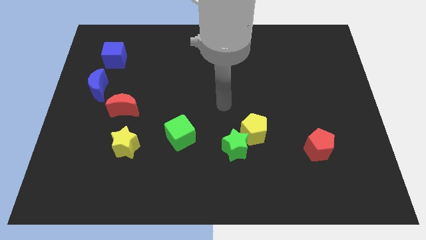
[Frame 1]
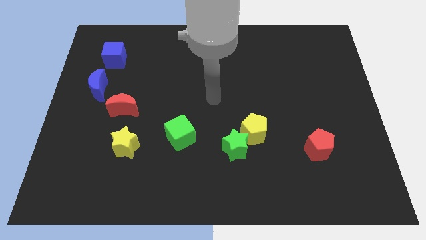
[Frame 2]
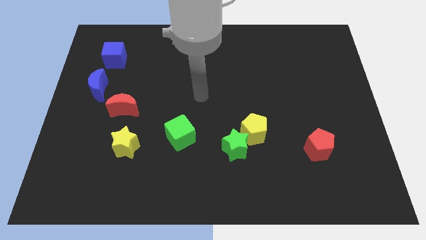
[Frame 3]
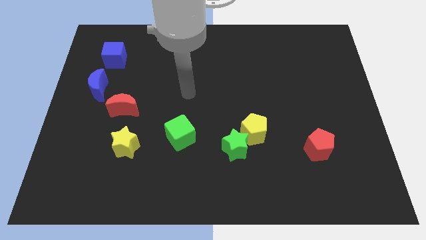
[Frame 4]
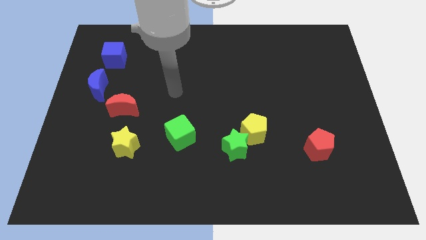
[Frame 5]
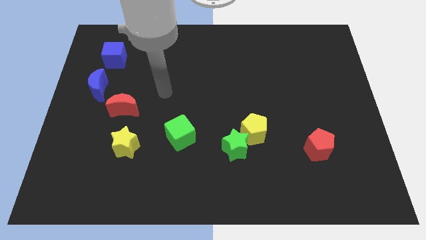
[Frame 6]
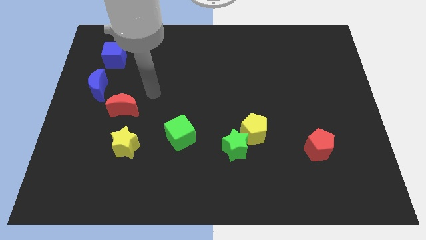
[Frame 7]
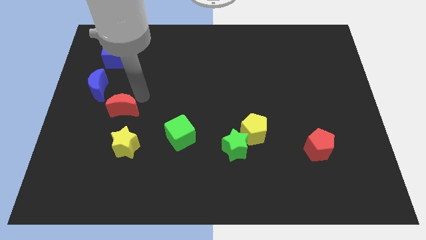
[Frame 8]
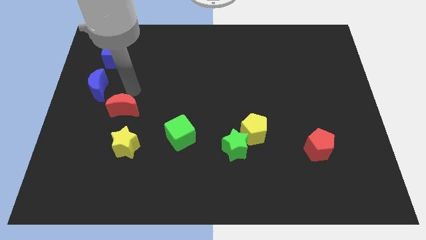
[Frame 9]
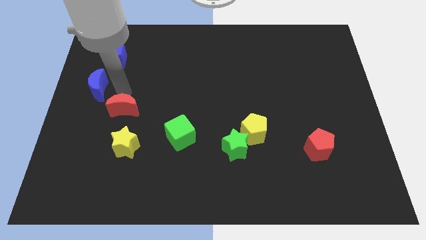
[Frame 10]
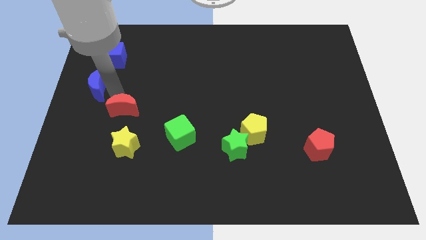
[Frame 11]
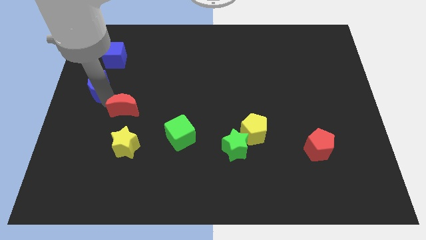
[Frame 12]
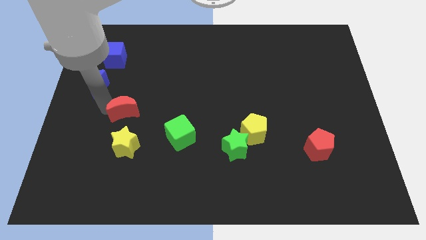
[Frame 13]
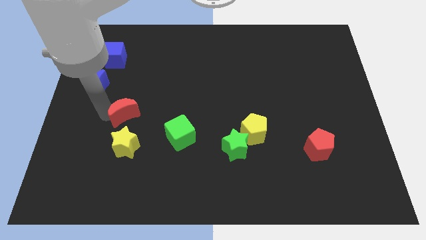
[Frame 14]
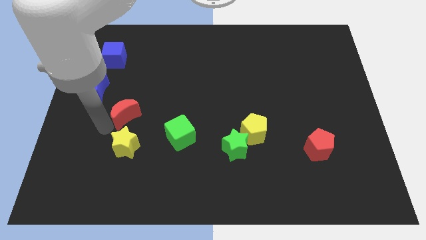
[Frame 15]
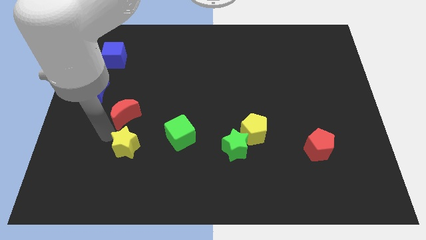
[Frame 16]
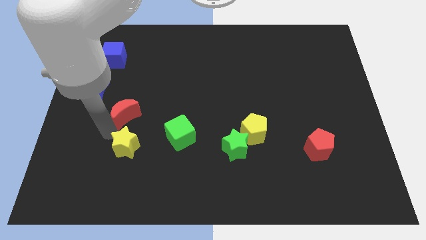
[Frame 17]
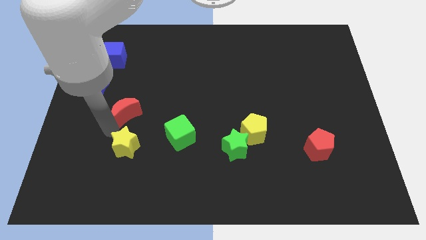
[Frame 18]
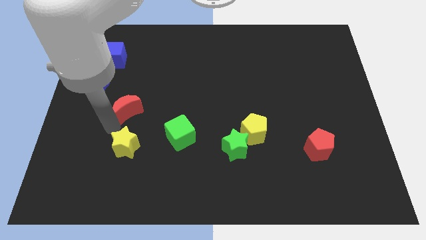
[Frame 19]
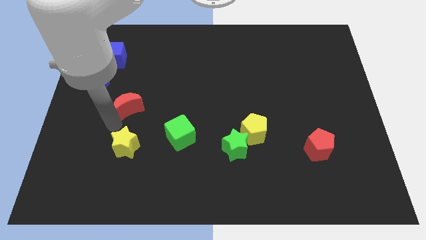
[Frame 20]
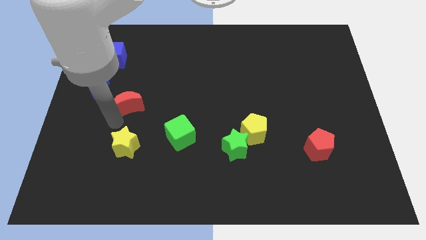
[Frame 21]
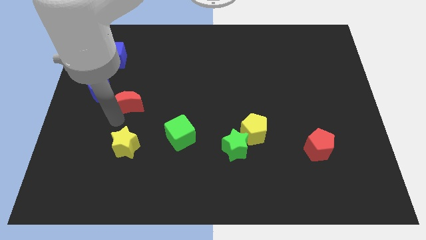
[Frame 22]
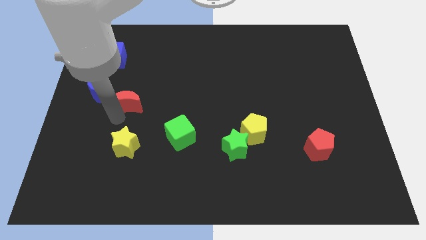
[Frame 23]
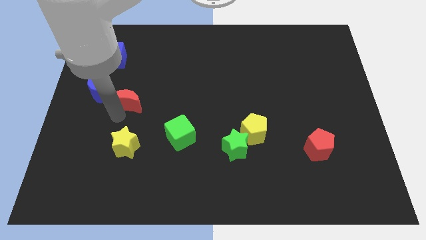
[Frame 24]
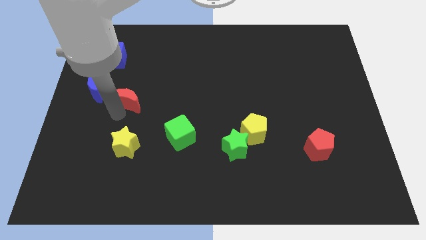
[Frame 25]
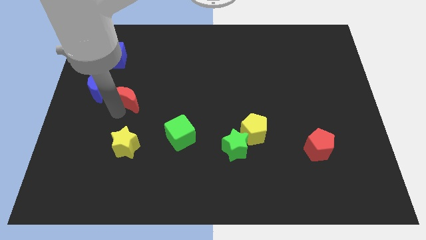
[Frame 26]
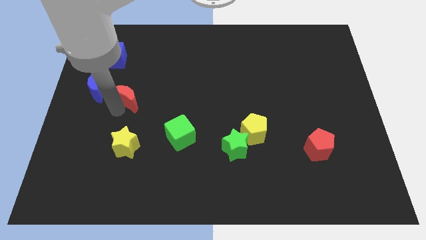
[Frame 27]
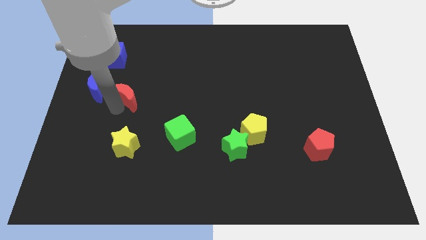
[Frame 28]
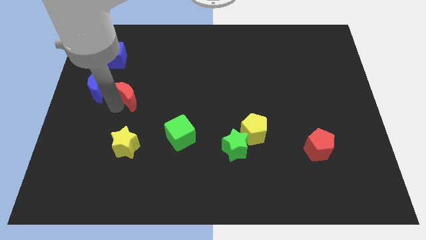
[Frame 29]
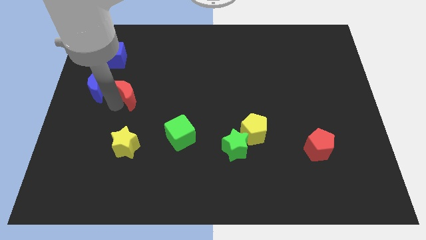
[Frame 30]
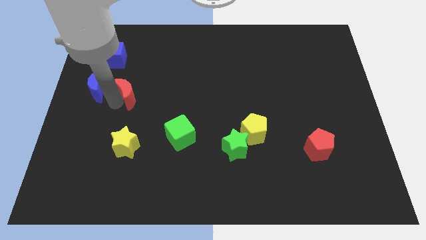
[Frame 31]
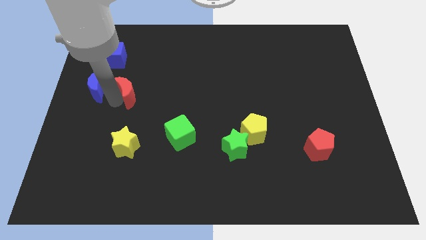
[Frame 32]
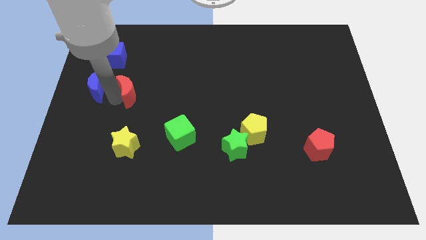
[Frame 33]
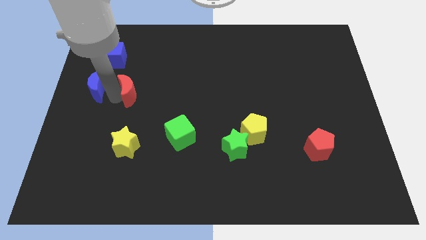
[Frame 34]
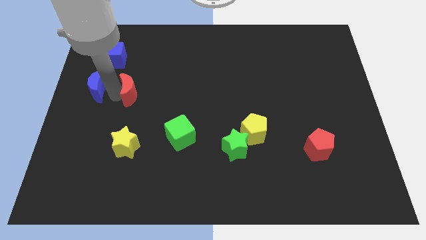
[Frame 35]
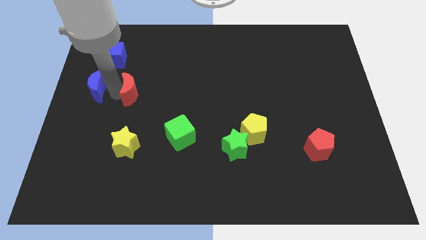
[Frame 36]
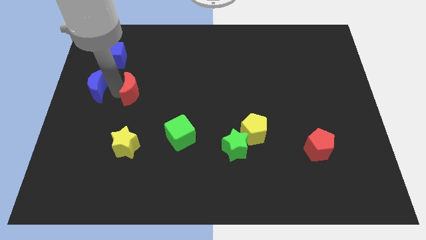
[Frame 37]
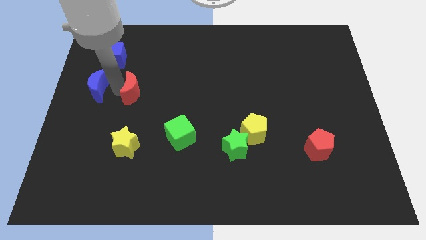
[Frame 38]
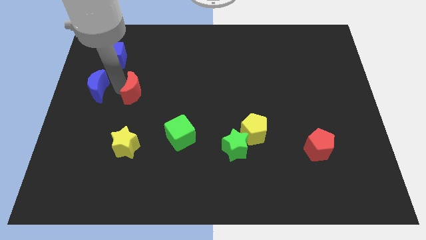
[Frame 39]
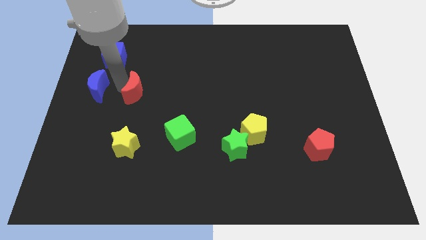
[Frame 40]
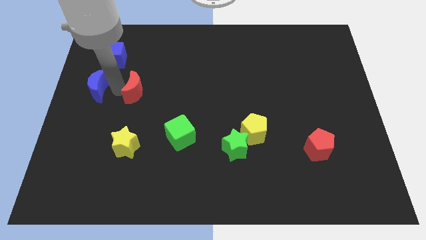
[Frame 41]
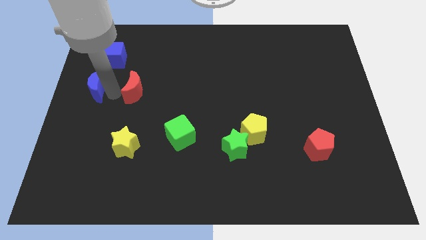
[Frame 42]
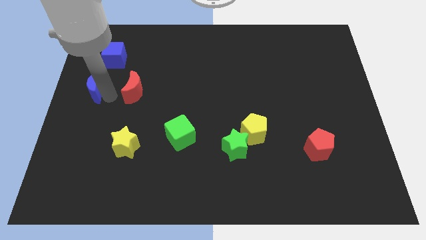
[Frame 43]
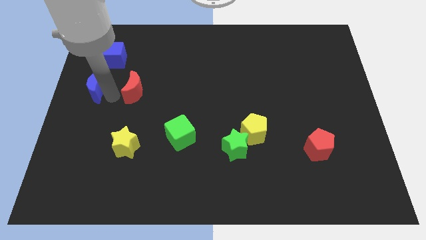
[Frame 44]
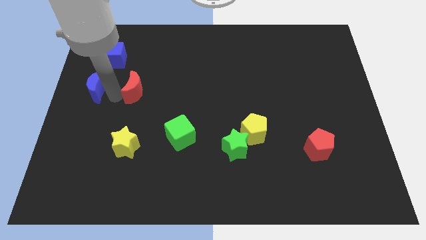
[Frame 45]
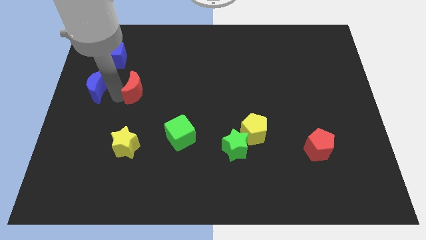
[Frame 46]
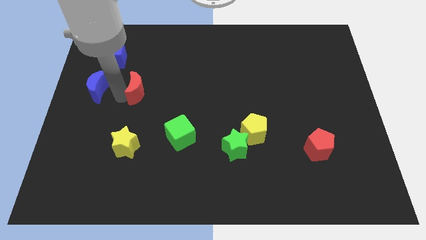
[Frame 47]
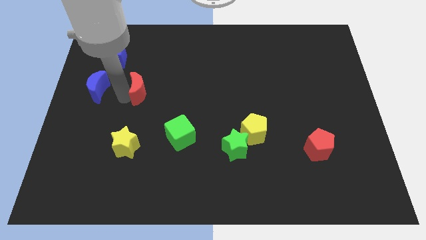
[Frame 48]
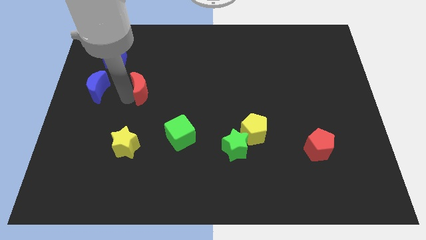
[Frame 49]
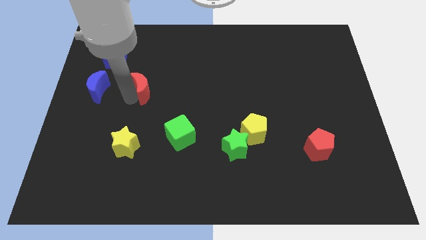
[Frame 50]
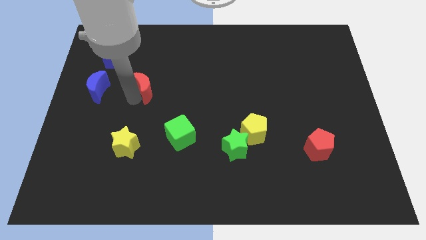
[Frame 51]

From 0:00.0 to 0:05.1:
slide the red moon somewhat up and to the right diagonally

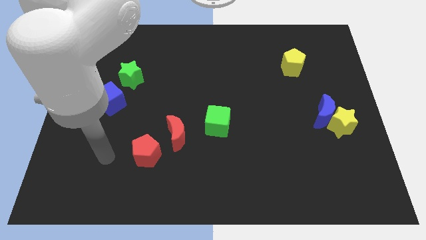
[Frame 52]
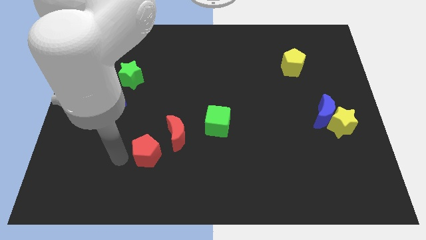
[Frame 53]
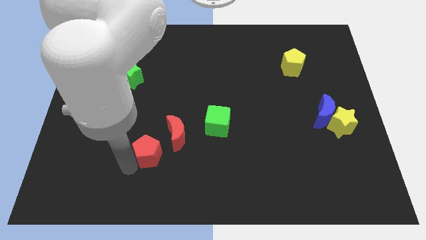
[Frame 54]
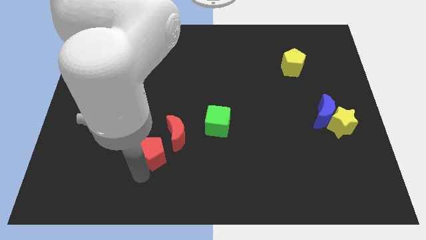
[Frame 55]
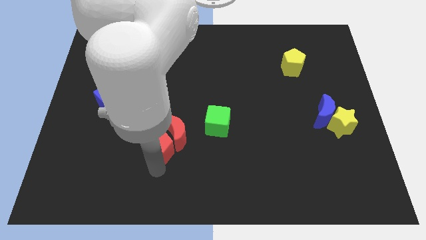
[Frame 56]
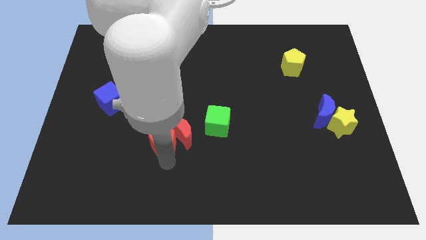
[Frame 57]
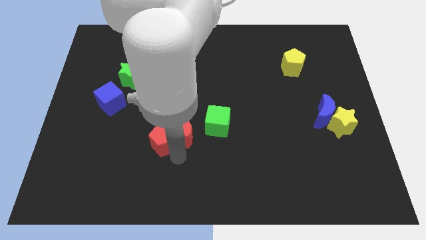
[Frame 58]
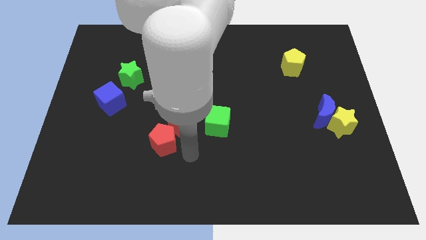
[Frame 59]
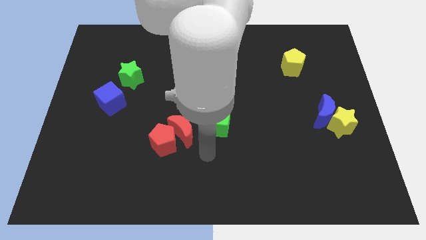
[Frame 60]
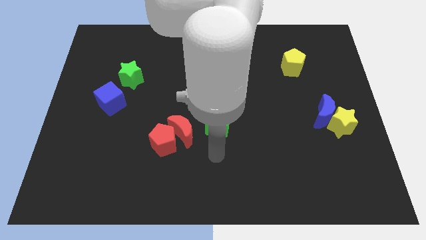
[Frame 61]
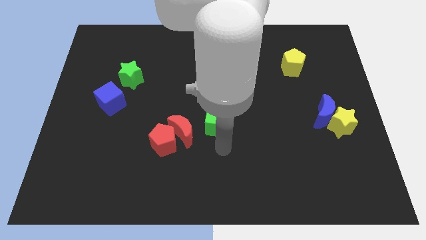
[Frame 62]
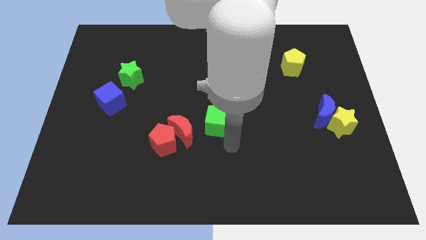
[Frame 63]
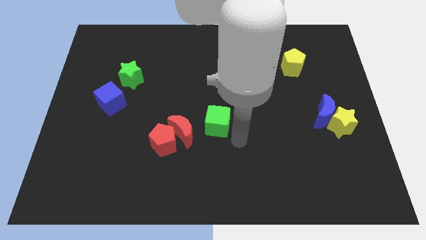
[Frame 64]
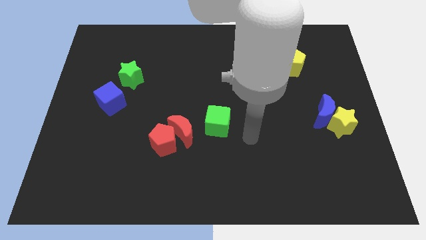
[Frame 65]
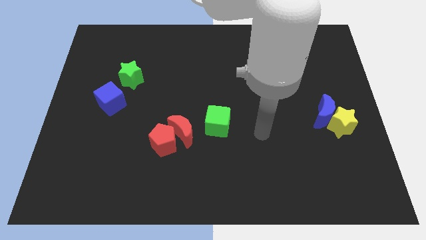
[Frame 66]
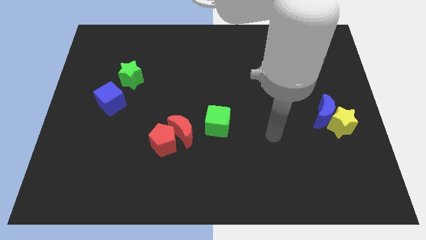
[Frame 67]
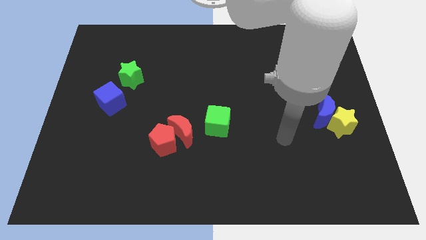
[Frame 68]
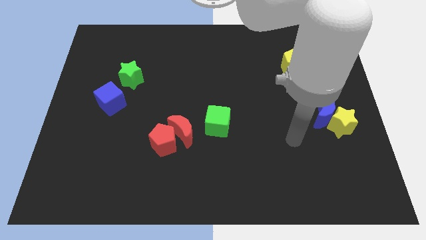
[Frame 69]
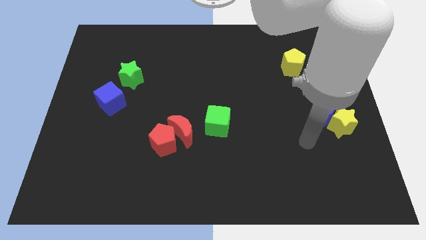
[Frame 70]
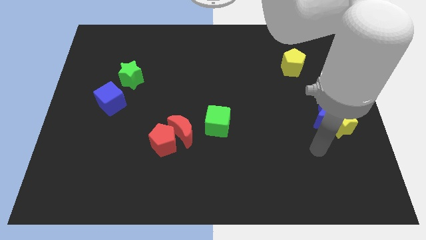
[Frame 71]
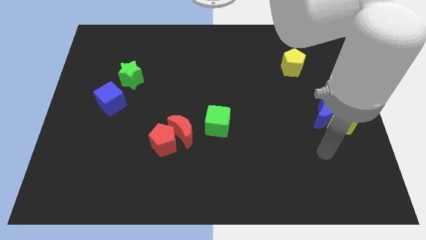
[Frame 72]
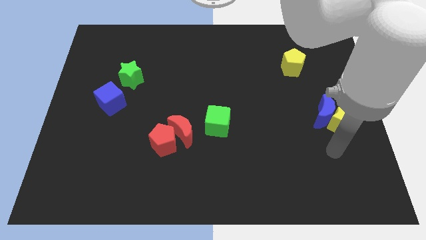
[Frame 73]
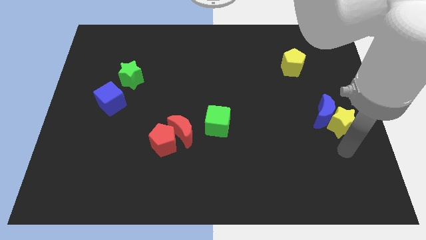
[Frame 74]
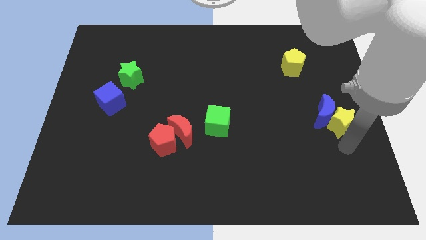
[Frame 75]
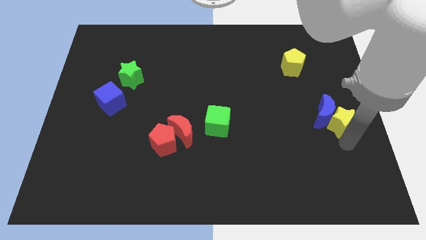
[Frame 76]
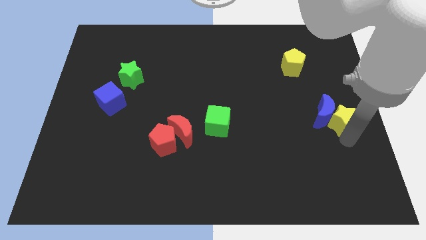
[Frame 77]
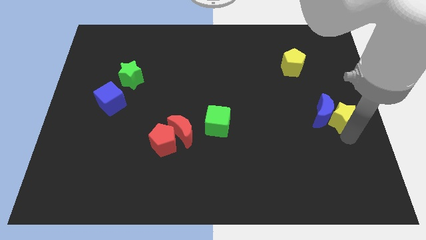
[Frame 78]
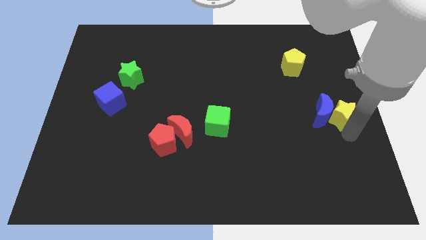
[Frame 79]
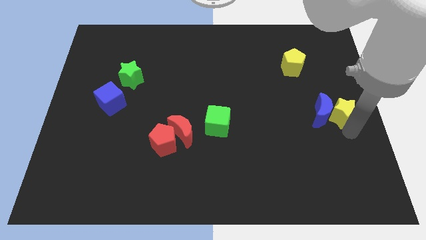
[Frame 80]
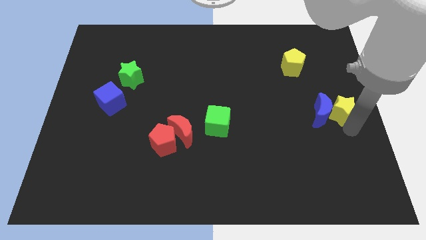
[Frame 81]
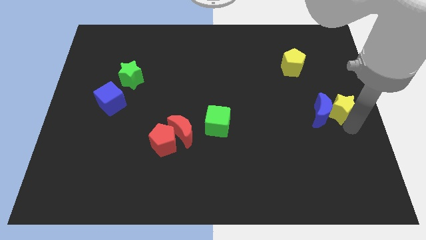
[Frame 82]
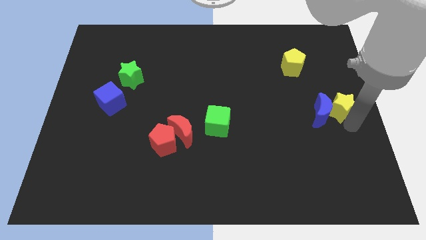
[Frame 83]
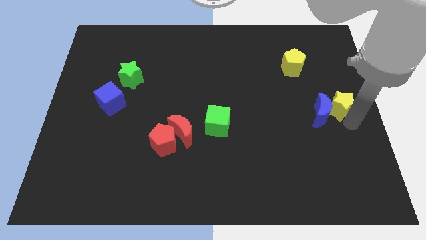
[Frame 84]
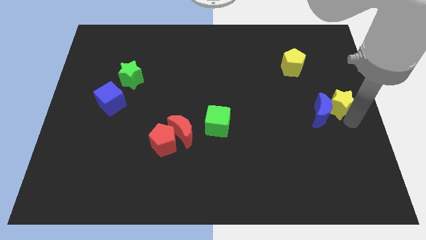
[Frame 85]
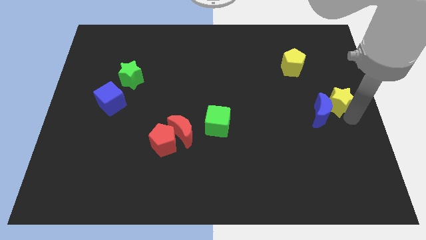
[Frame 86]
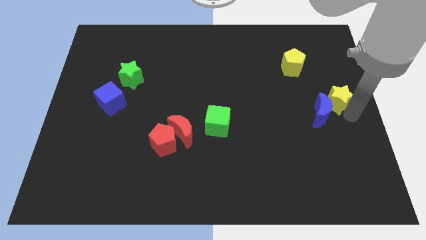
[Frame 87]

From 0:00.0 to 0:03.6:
slide the yellow star upwards slightly
